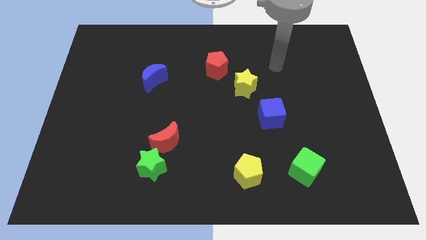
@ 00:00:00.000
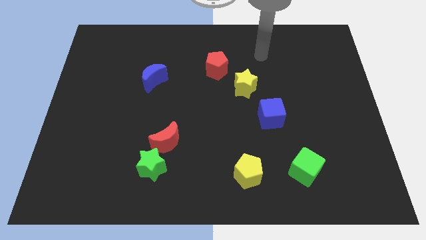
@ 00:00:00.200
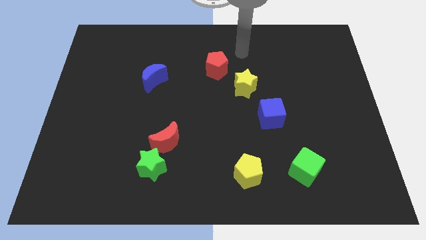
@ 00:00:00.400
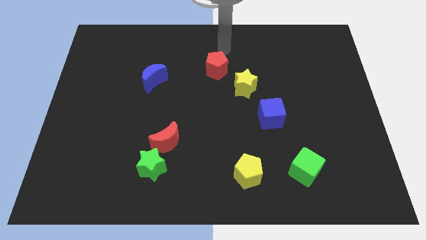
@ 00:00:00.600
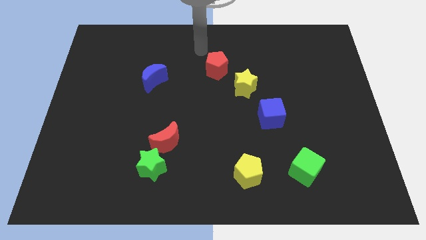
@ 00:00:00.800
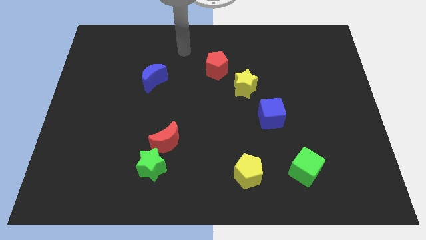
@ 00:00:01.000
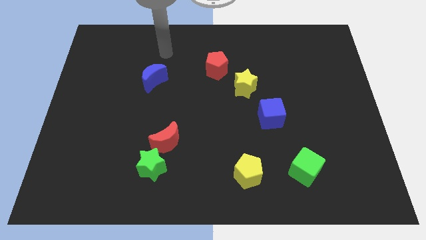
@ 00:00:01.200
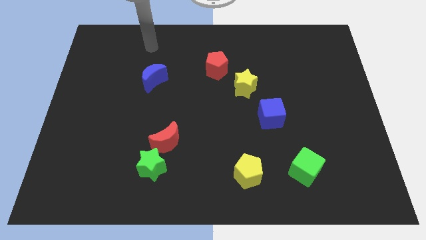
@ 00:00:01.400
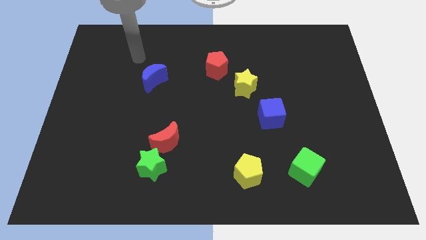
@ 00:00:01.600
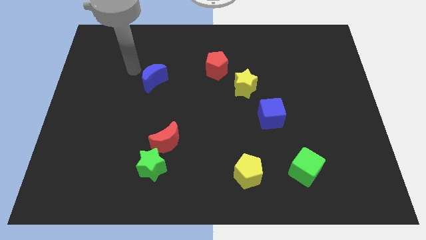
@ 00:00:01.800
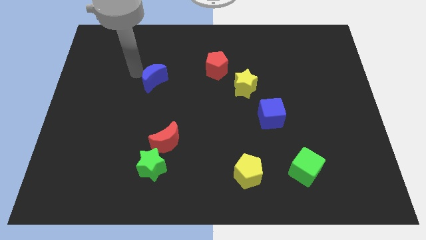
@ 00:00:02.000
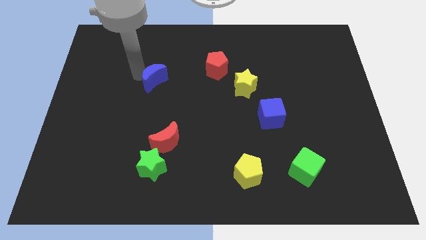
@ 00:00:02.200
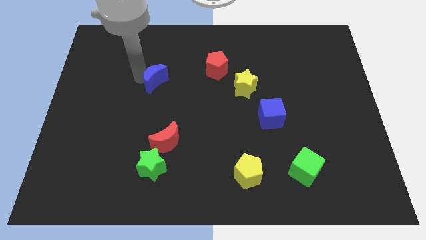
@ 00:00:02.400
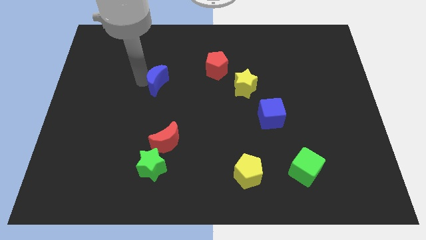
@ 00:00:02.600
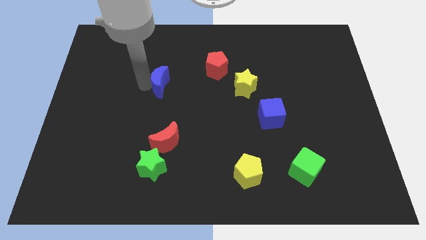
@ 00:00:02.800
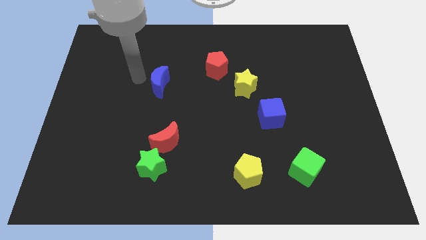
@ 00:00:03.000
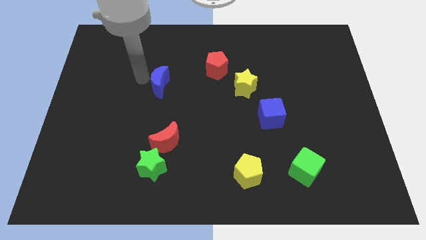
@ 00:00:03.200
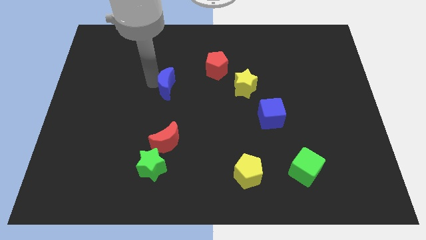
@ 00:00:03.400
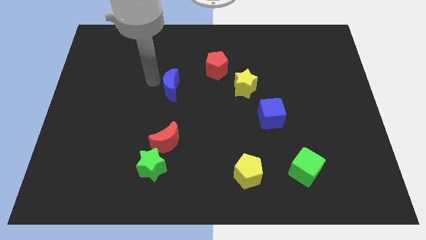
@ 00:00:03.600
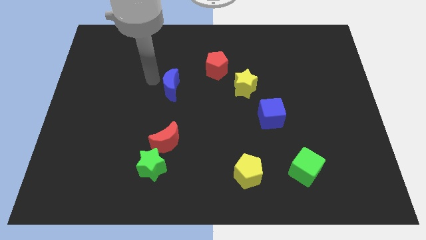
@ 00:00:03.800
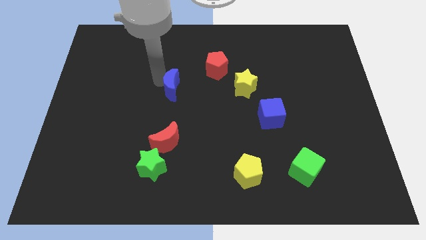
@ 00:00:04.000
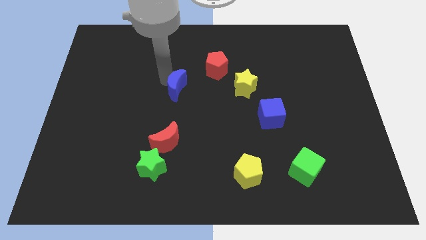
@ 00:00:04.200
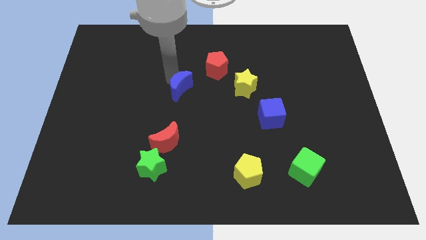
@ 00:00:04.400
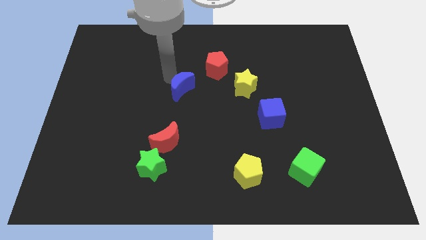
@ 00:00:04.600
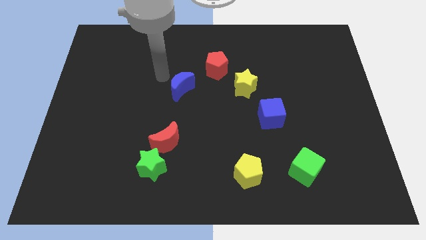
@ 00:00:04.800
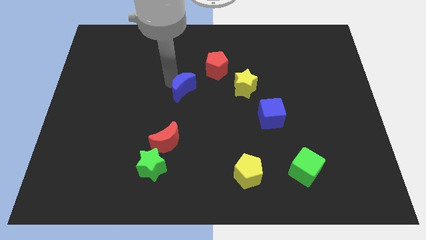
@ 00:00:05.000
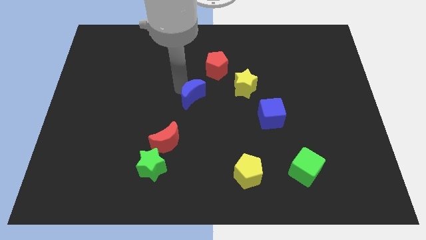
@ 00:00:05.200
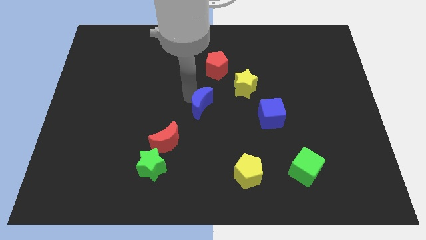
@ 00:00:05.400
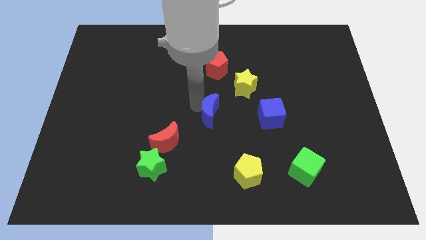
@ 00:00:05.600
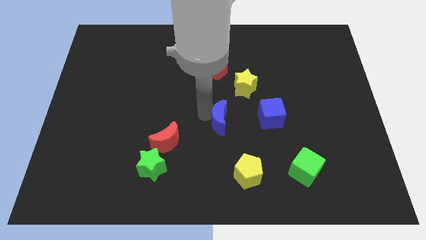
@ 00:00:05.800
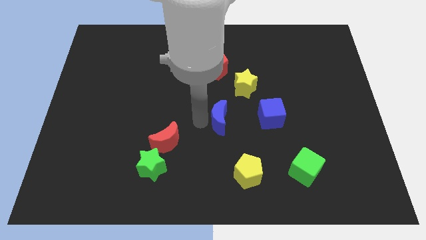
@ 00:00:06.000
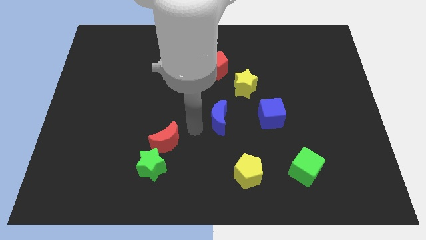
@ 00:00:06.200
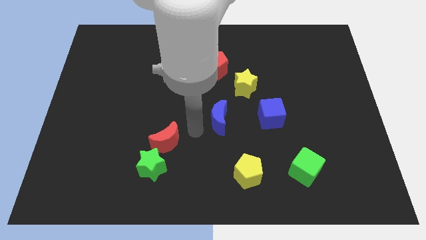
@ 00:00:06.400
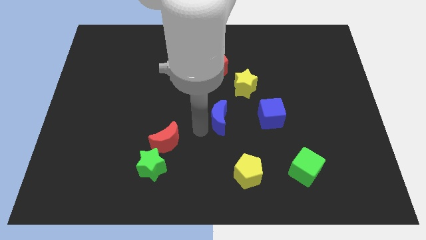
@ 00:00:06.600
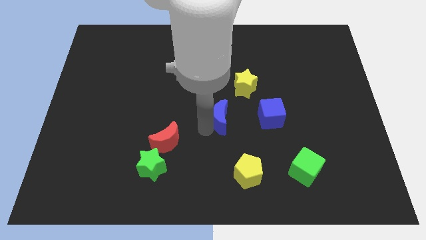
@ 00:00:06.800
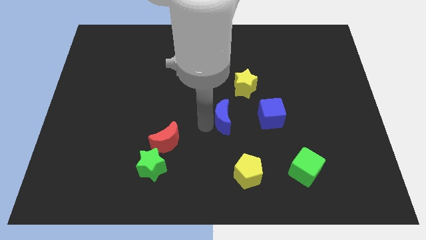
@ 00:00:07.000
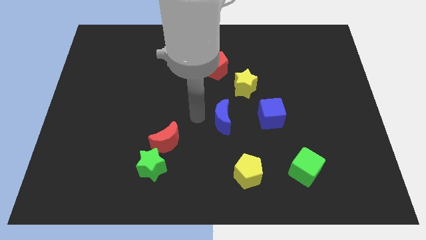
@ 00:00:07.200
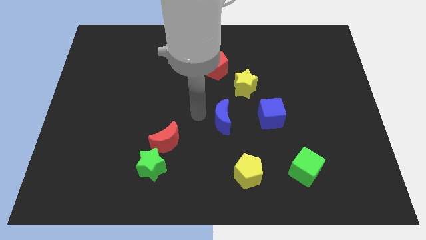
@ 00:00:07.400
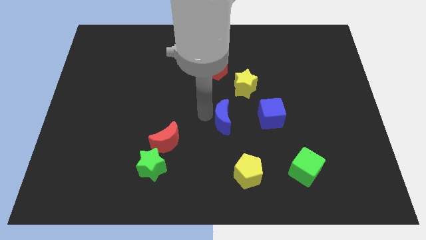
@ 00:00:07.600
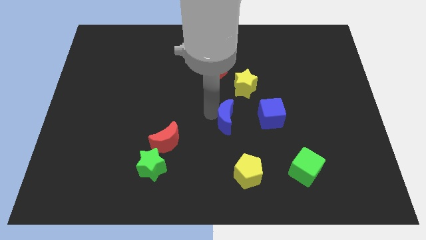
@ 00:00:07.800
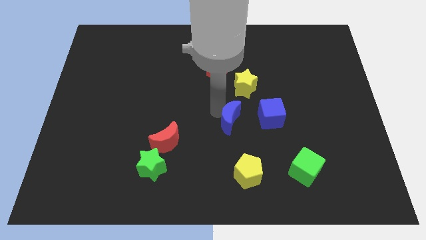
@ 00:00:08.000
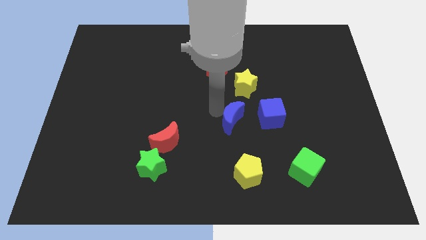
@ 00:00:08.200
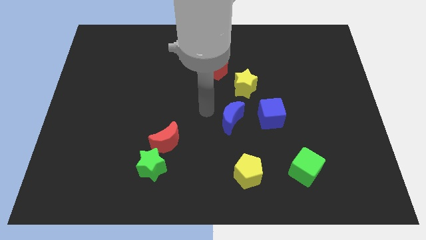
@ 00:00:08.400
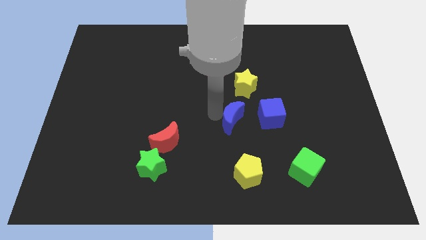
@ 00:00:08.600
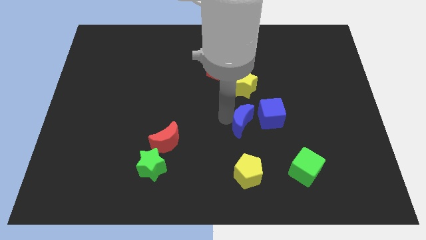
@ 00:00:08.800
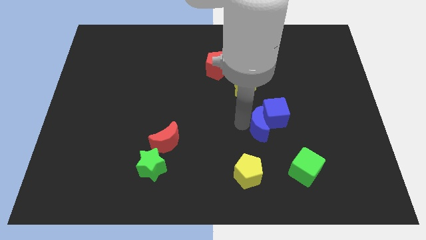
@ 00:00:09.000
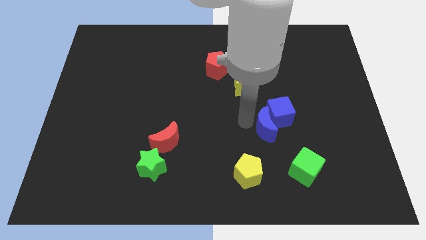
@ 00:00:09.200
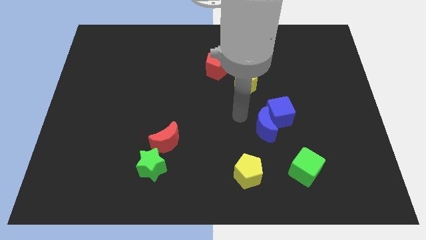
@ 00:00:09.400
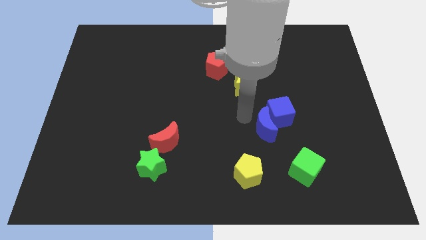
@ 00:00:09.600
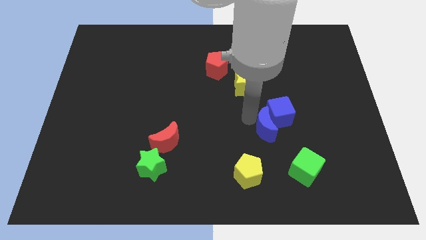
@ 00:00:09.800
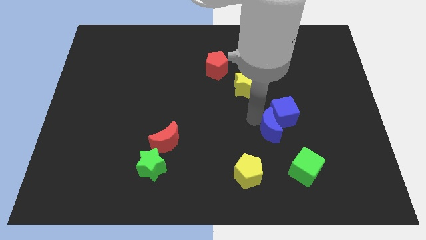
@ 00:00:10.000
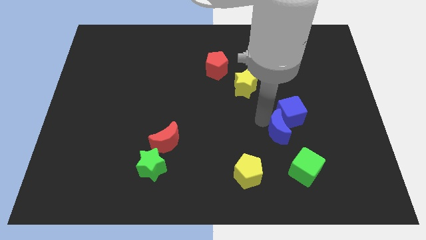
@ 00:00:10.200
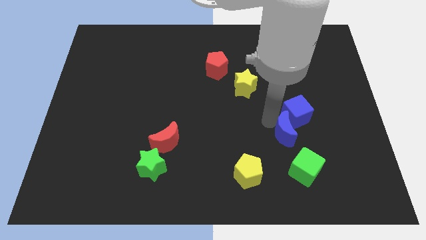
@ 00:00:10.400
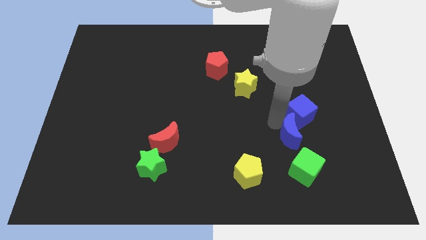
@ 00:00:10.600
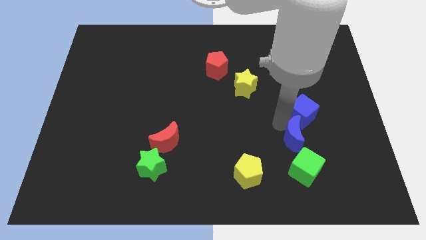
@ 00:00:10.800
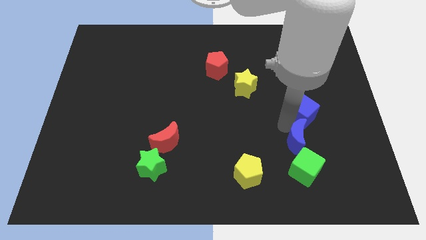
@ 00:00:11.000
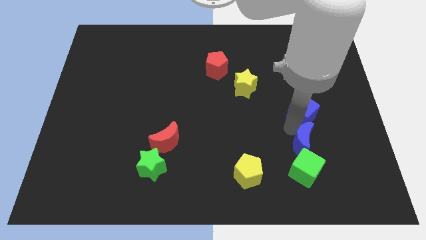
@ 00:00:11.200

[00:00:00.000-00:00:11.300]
move the blue moon diagonally up and to the right of the green cube

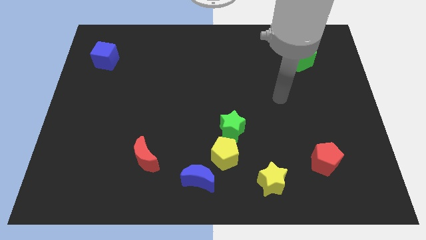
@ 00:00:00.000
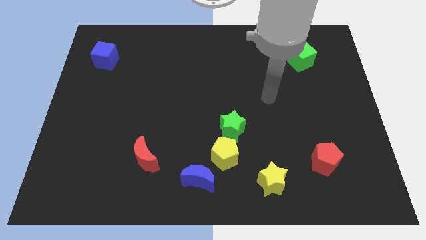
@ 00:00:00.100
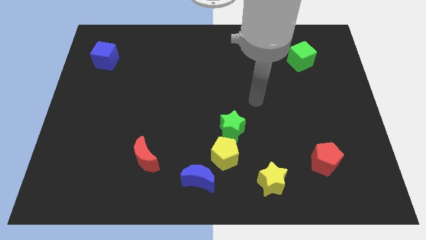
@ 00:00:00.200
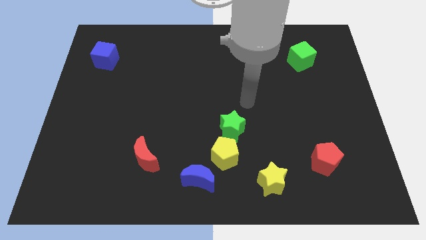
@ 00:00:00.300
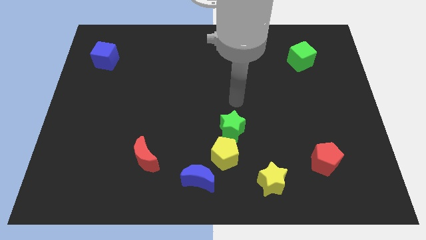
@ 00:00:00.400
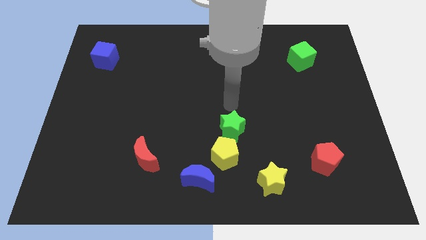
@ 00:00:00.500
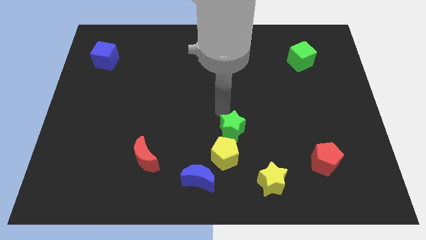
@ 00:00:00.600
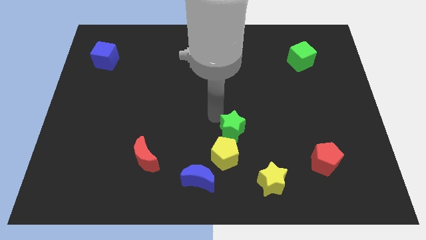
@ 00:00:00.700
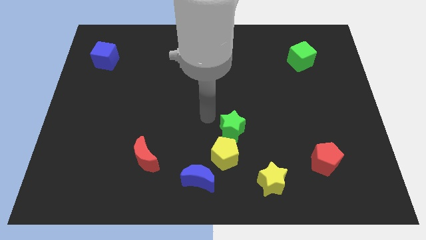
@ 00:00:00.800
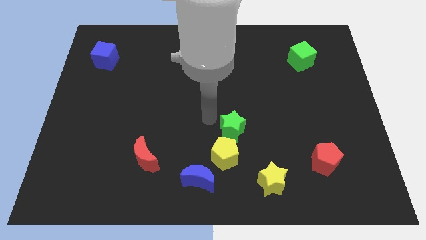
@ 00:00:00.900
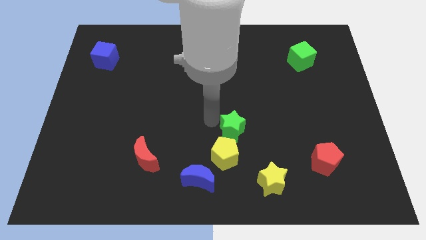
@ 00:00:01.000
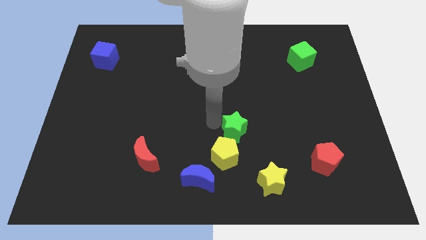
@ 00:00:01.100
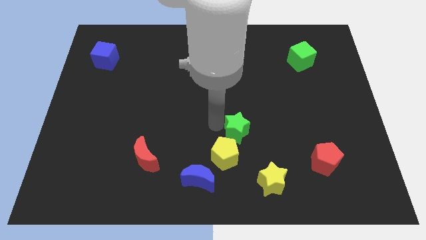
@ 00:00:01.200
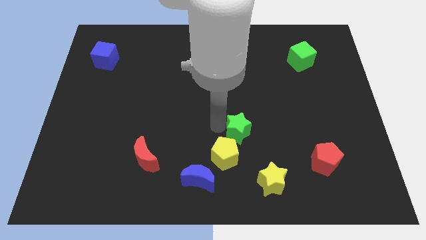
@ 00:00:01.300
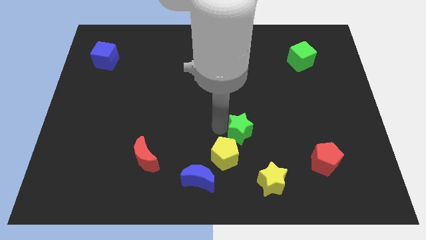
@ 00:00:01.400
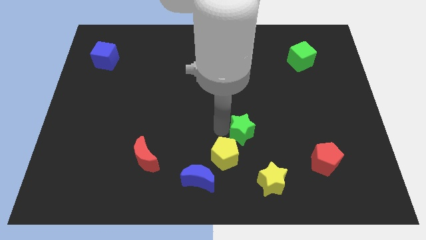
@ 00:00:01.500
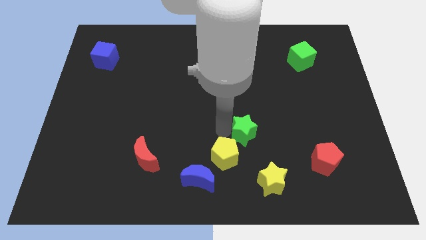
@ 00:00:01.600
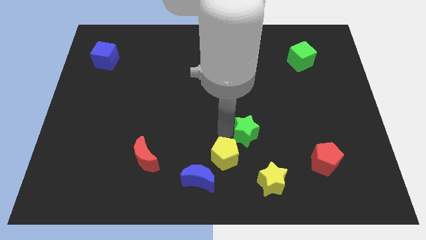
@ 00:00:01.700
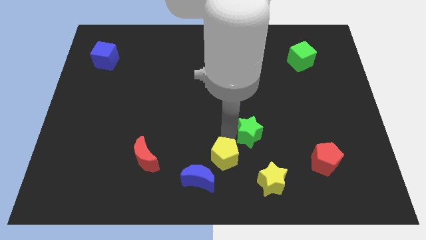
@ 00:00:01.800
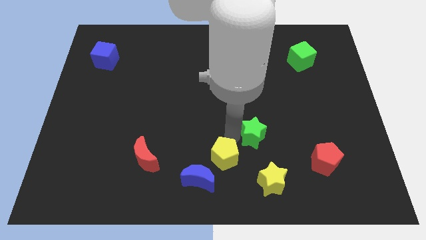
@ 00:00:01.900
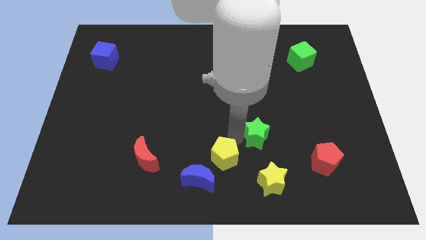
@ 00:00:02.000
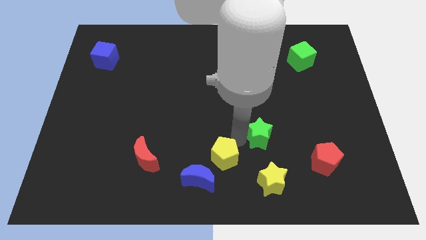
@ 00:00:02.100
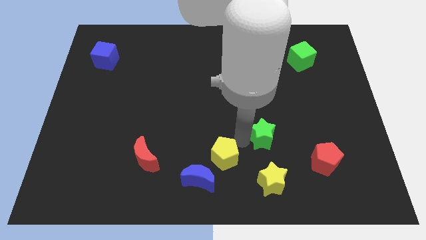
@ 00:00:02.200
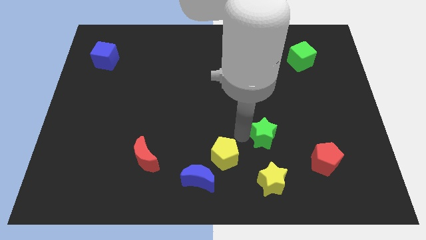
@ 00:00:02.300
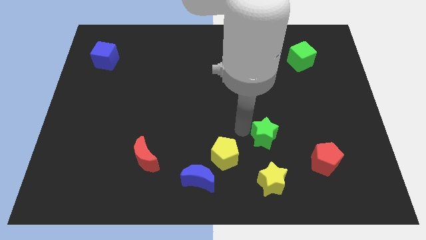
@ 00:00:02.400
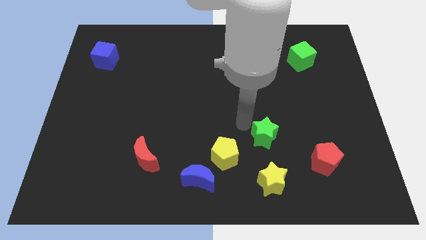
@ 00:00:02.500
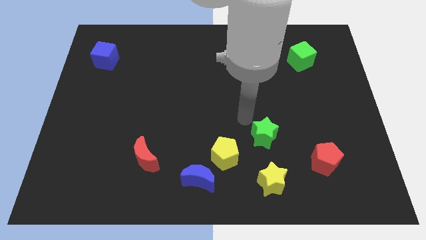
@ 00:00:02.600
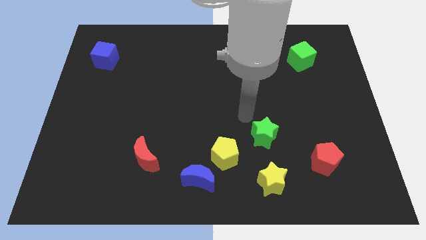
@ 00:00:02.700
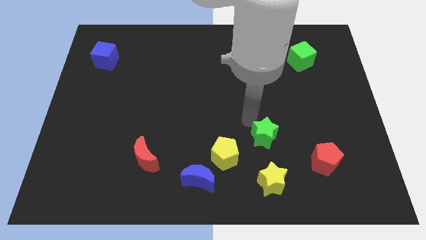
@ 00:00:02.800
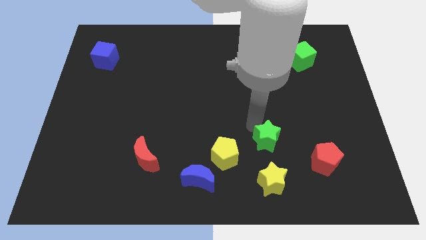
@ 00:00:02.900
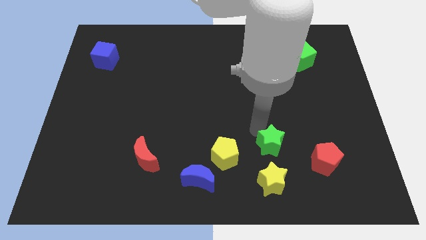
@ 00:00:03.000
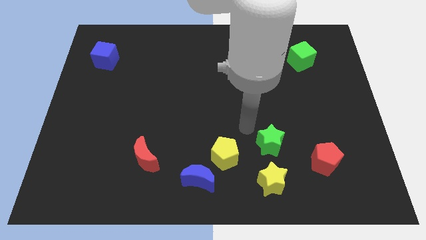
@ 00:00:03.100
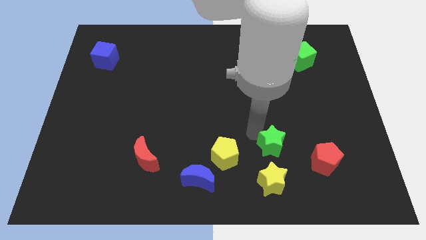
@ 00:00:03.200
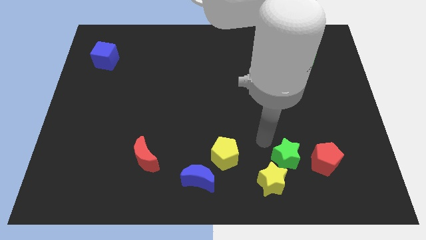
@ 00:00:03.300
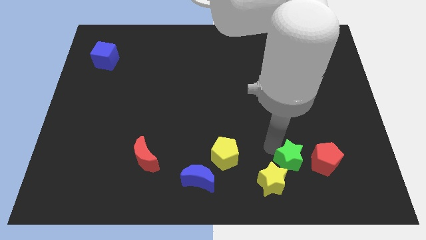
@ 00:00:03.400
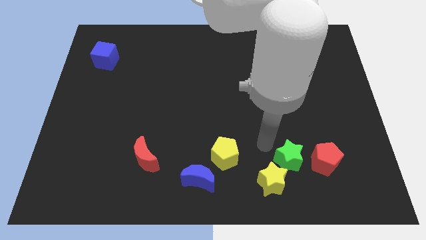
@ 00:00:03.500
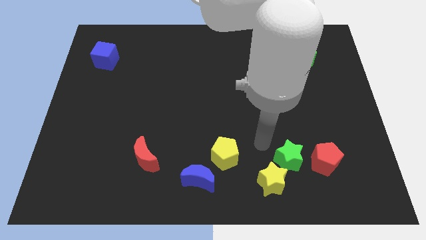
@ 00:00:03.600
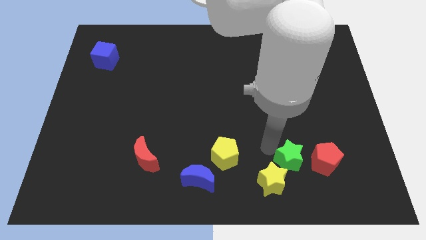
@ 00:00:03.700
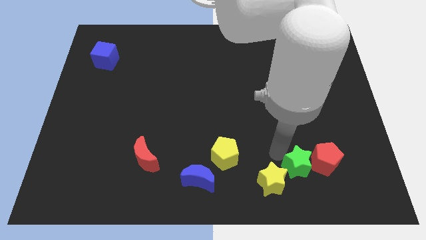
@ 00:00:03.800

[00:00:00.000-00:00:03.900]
move the green star to the right of the yellow star
